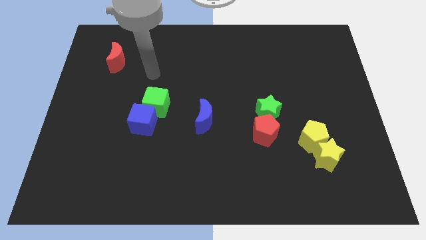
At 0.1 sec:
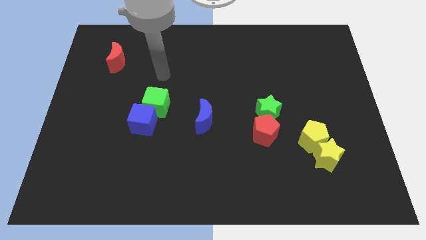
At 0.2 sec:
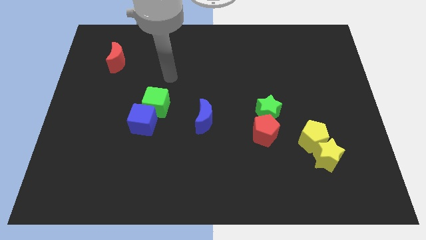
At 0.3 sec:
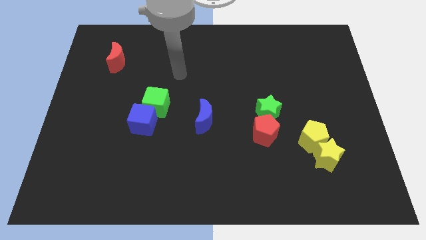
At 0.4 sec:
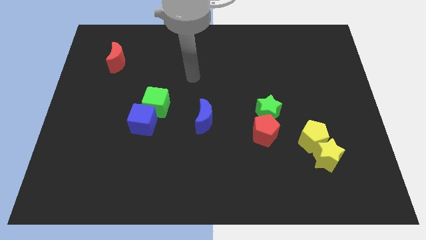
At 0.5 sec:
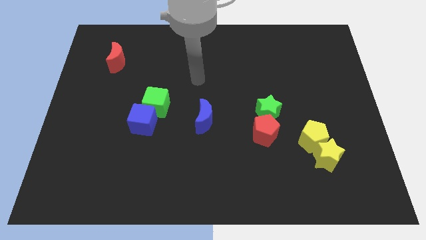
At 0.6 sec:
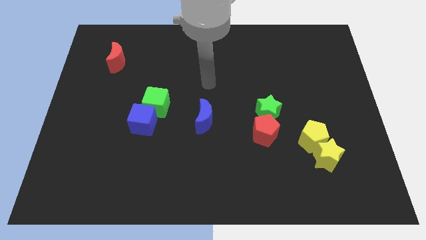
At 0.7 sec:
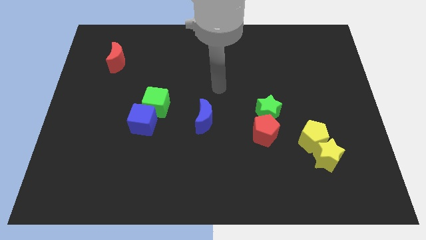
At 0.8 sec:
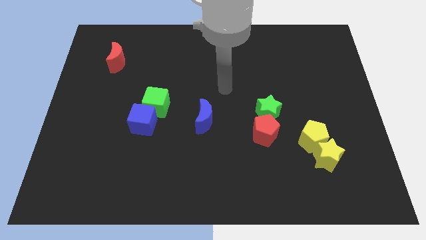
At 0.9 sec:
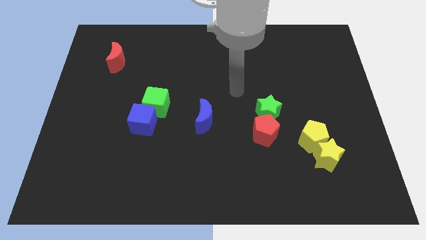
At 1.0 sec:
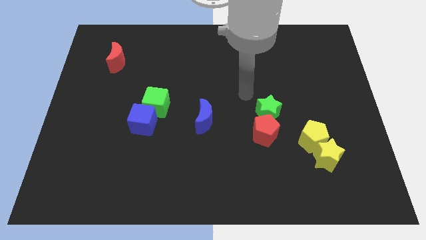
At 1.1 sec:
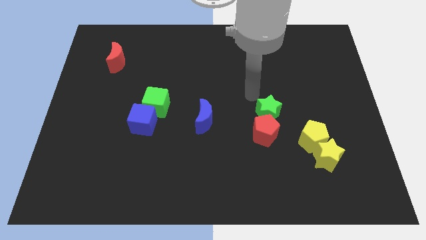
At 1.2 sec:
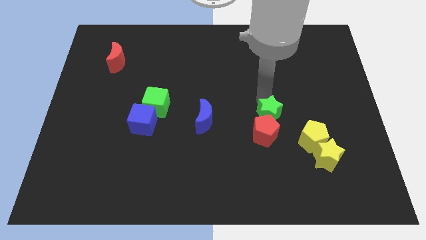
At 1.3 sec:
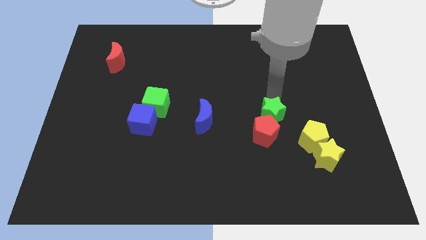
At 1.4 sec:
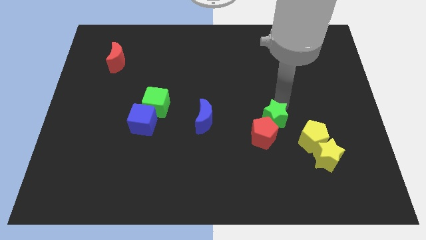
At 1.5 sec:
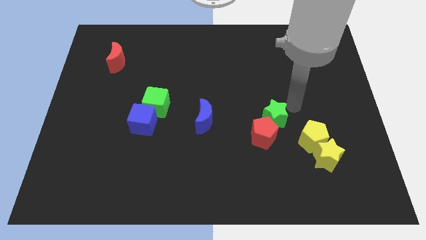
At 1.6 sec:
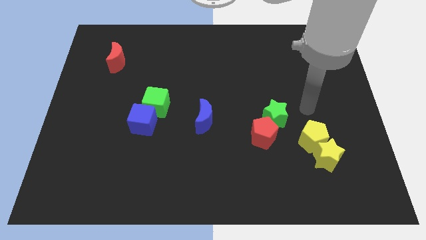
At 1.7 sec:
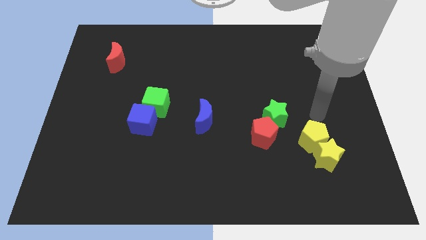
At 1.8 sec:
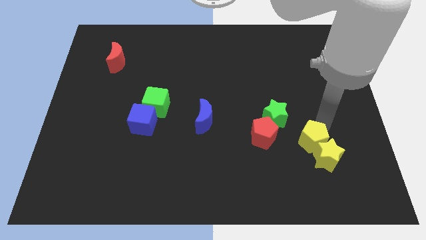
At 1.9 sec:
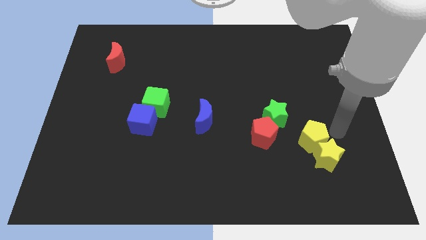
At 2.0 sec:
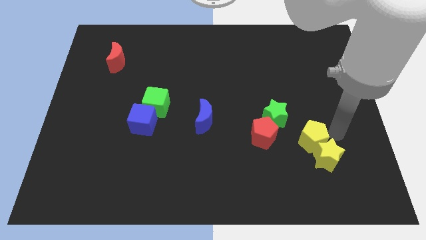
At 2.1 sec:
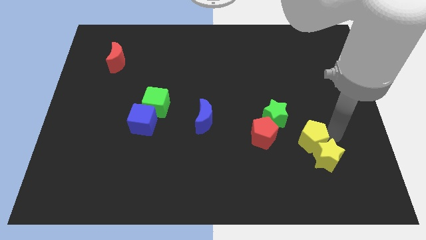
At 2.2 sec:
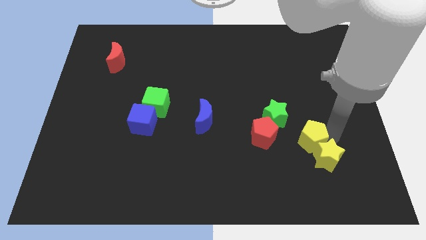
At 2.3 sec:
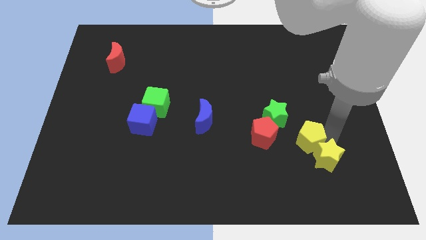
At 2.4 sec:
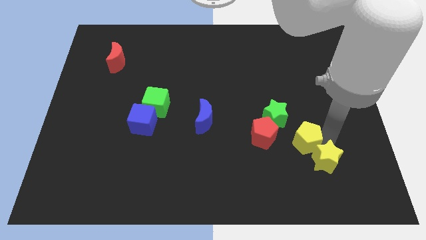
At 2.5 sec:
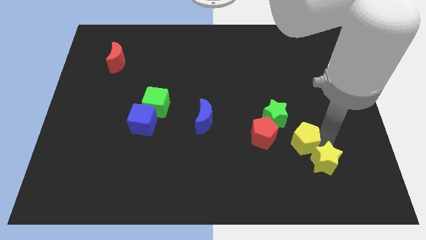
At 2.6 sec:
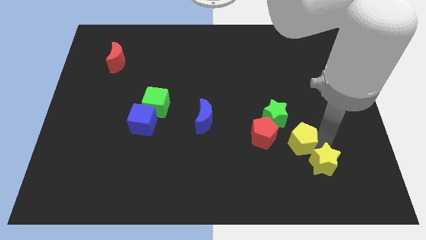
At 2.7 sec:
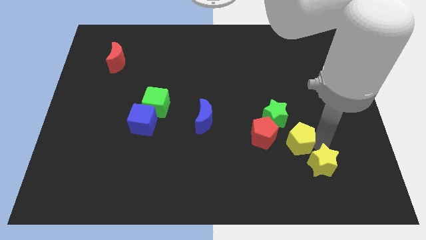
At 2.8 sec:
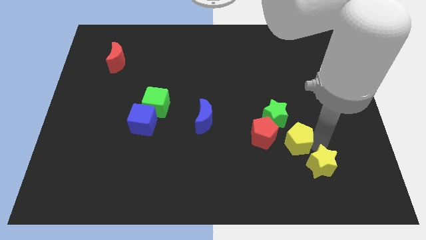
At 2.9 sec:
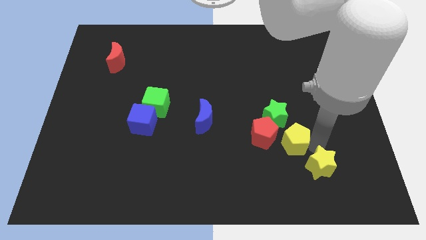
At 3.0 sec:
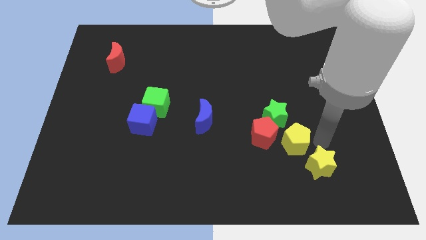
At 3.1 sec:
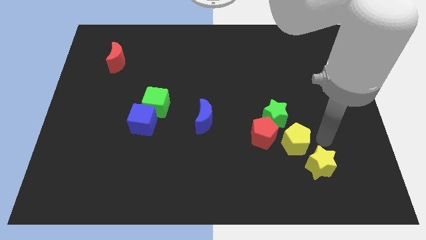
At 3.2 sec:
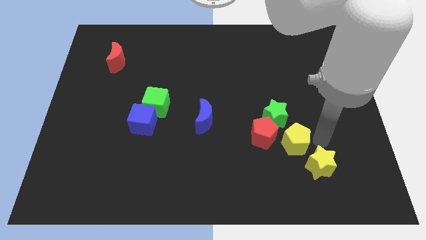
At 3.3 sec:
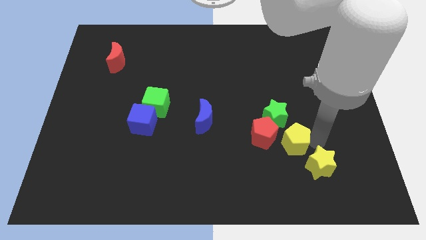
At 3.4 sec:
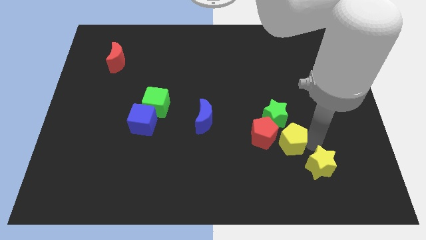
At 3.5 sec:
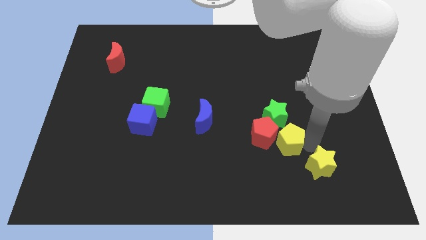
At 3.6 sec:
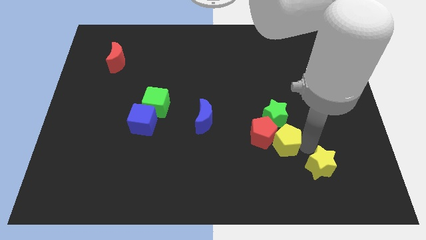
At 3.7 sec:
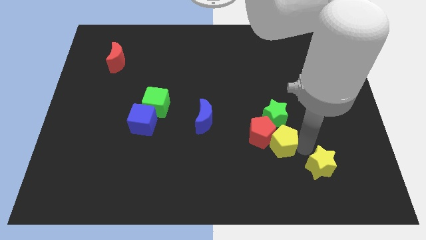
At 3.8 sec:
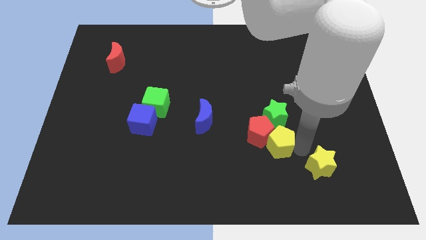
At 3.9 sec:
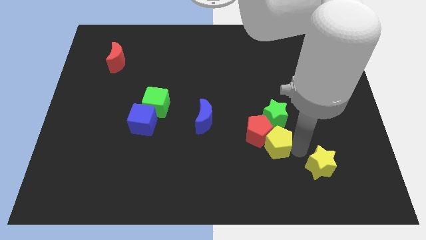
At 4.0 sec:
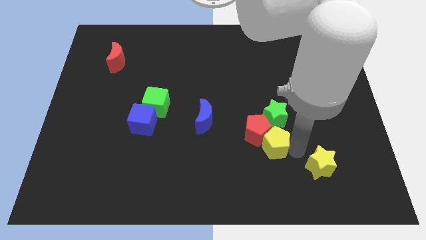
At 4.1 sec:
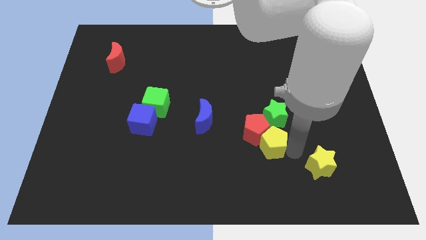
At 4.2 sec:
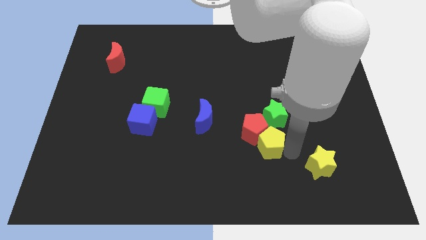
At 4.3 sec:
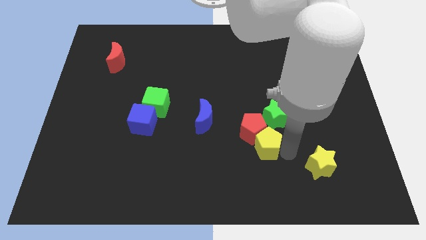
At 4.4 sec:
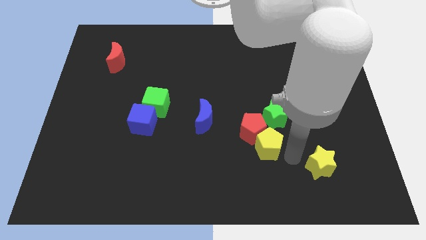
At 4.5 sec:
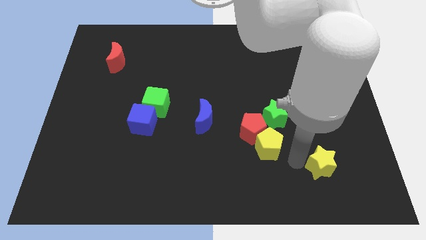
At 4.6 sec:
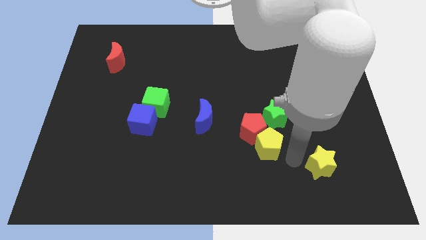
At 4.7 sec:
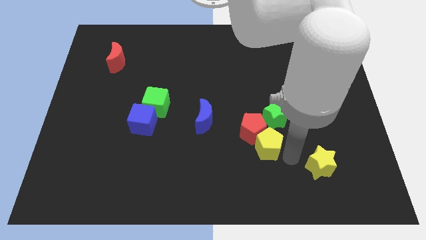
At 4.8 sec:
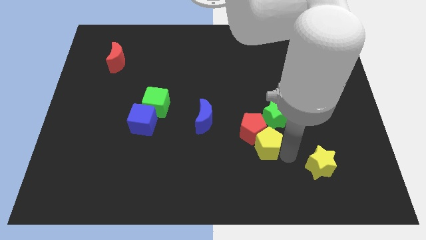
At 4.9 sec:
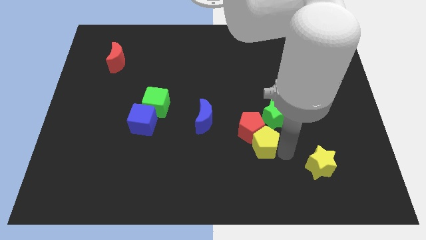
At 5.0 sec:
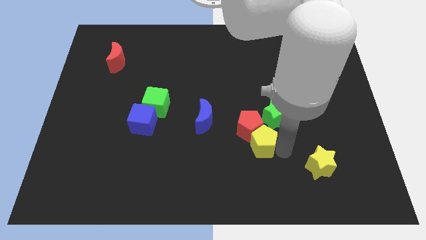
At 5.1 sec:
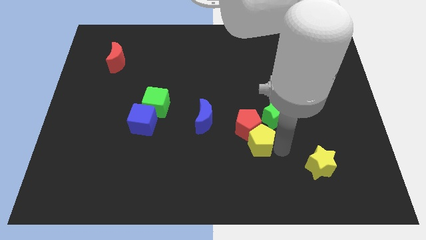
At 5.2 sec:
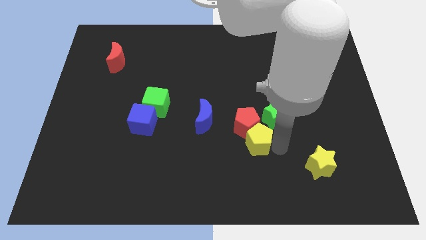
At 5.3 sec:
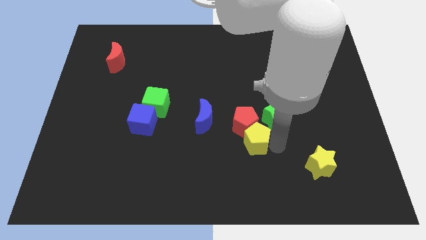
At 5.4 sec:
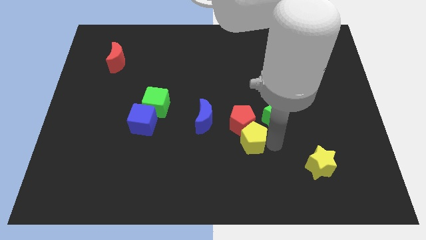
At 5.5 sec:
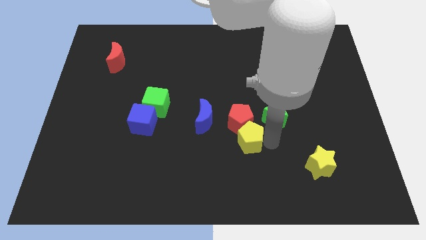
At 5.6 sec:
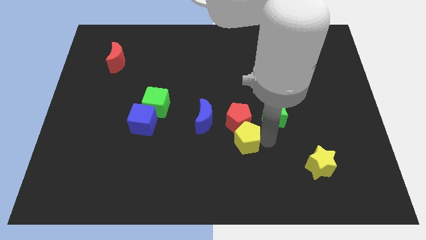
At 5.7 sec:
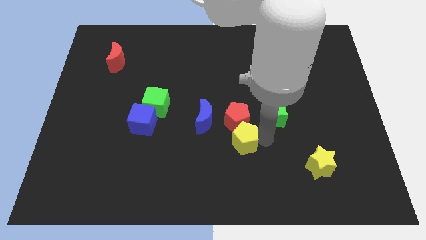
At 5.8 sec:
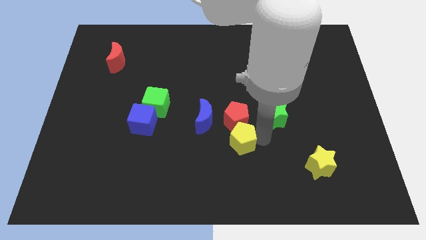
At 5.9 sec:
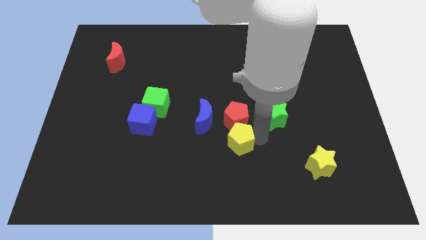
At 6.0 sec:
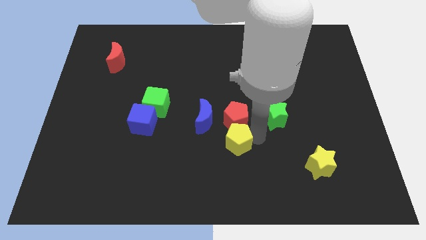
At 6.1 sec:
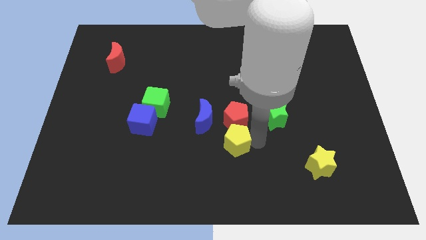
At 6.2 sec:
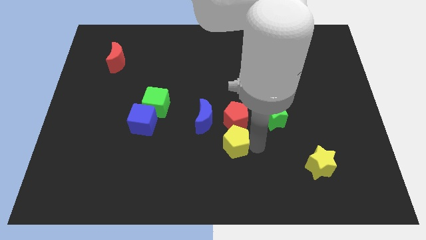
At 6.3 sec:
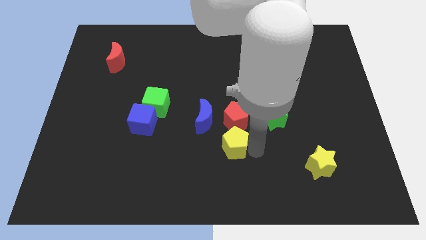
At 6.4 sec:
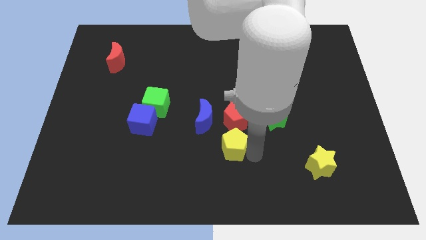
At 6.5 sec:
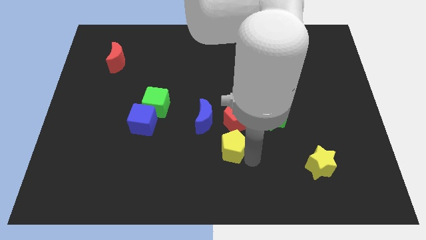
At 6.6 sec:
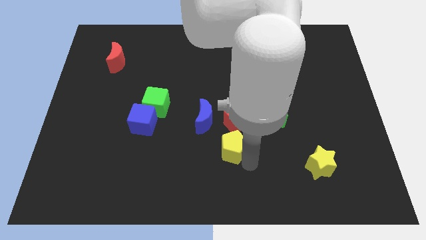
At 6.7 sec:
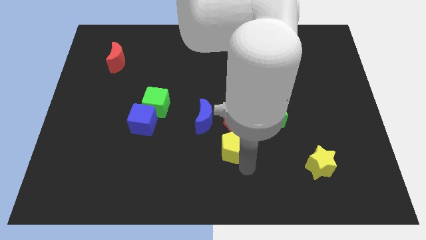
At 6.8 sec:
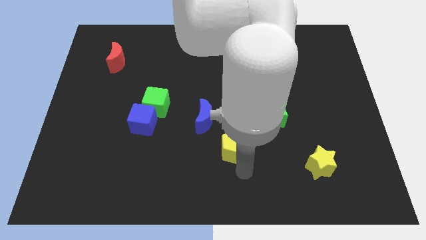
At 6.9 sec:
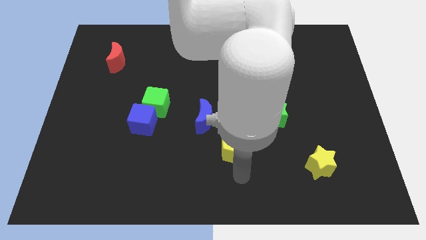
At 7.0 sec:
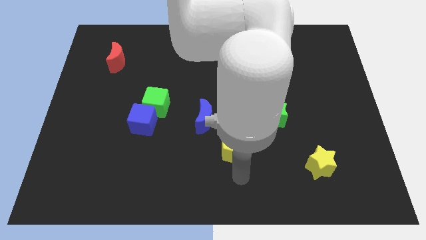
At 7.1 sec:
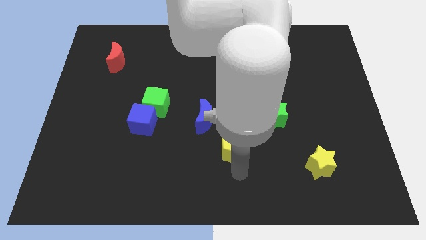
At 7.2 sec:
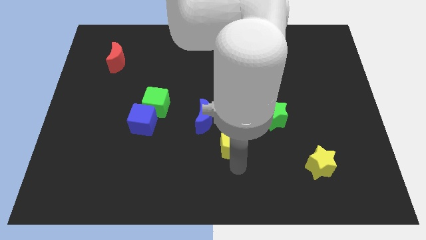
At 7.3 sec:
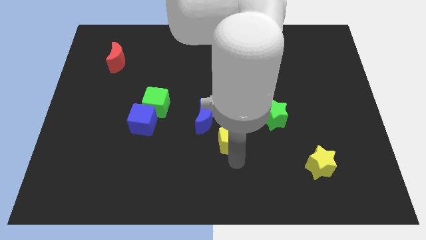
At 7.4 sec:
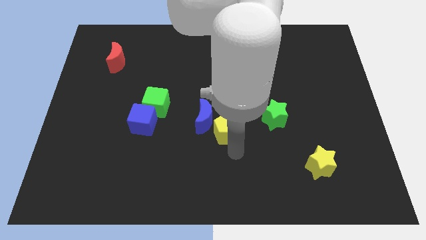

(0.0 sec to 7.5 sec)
move the yellow pentagon next to the blue moon

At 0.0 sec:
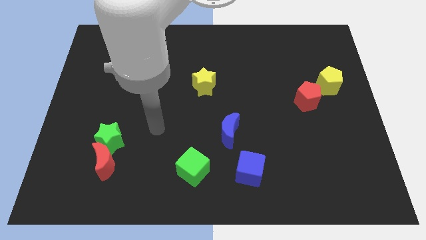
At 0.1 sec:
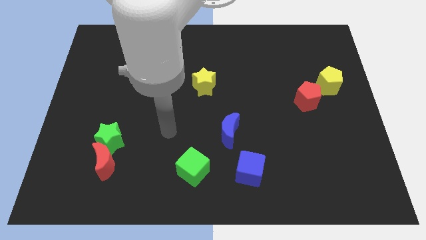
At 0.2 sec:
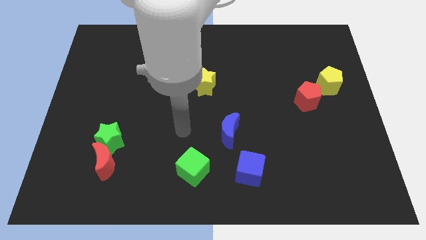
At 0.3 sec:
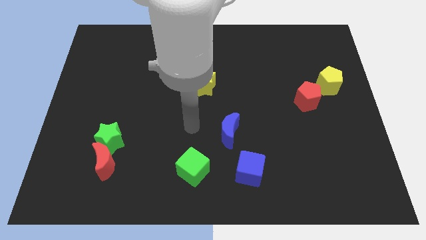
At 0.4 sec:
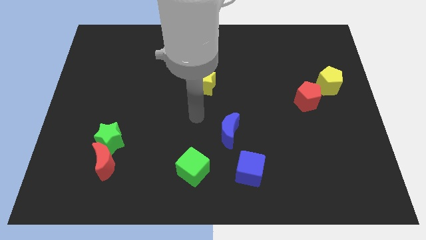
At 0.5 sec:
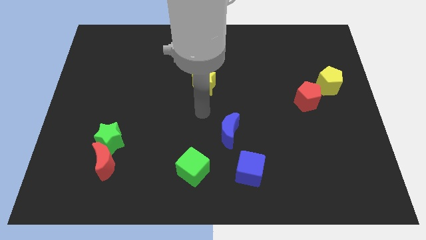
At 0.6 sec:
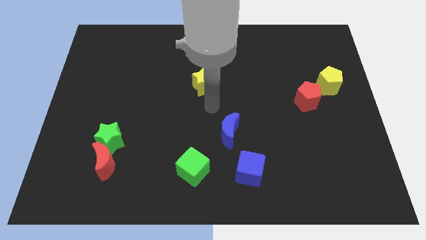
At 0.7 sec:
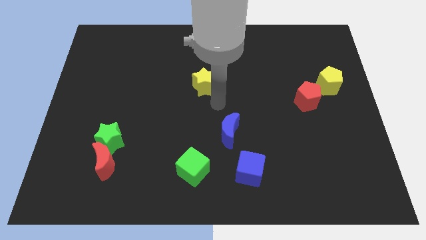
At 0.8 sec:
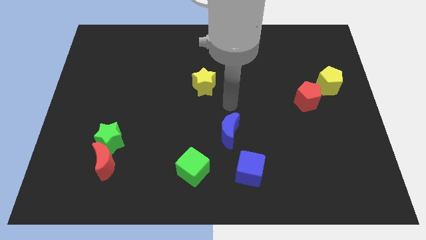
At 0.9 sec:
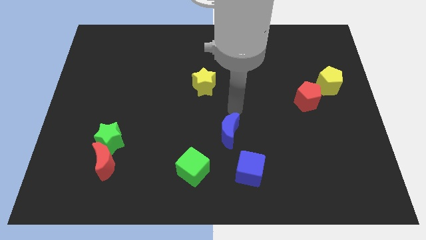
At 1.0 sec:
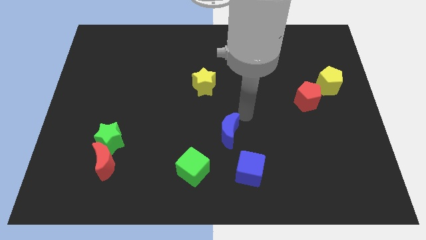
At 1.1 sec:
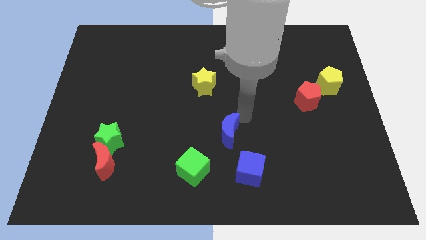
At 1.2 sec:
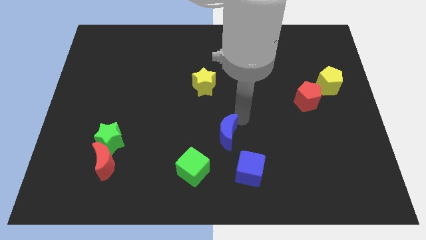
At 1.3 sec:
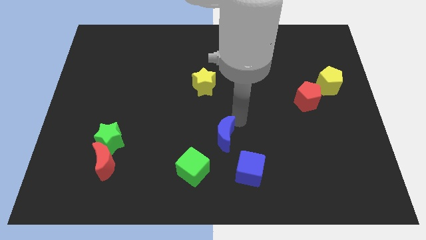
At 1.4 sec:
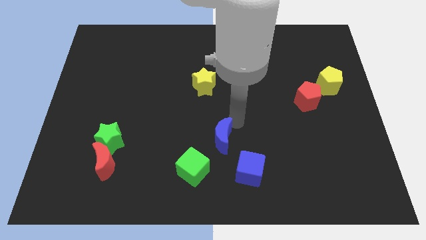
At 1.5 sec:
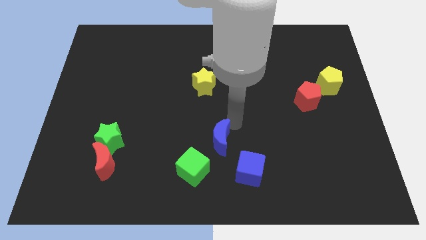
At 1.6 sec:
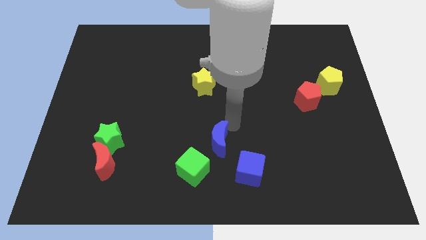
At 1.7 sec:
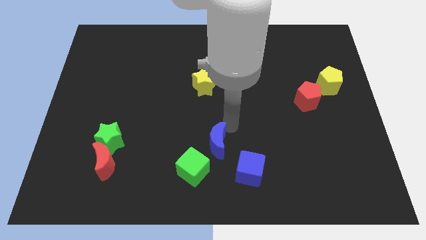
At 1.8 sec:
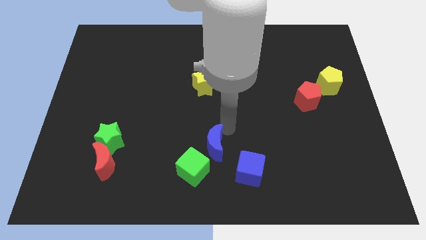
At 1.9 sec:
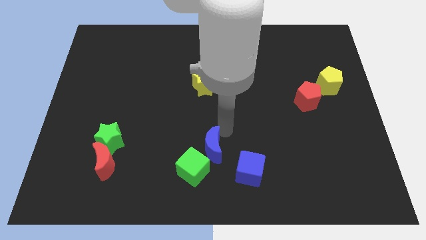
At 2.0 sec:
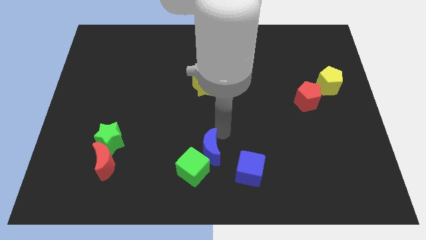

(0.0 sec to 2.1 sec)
move the blue moon towards the green cube
